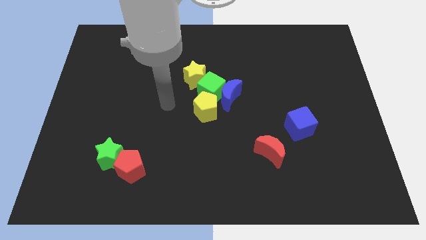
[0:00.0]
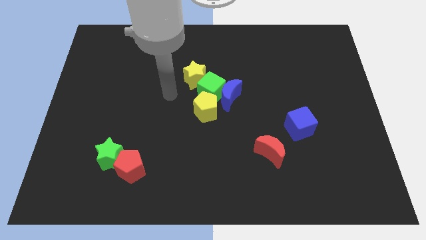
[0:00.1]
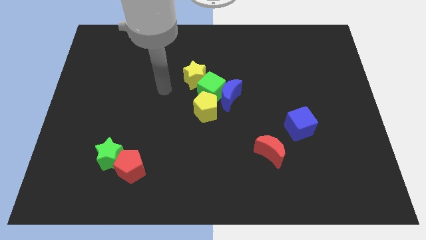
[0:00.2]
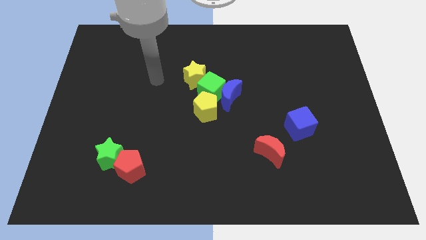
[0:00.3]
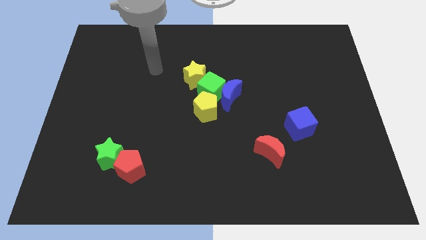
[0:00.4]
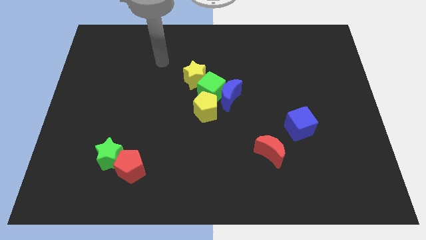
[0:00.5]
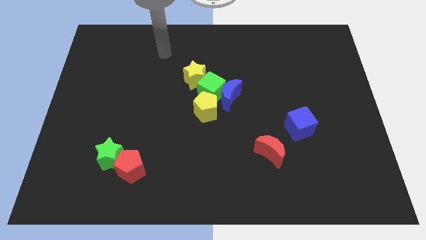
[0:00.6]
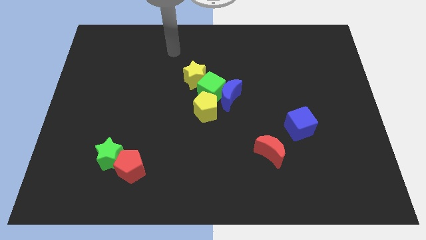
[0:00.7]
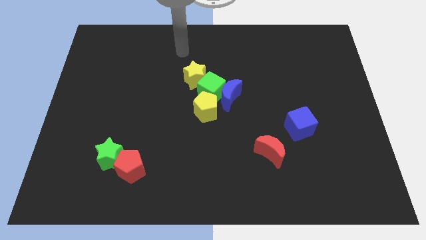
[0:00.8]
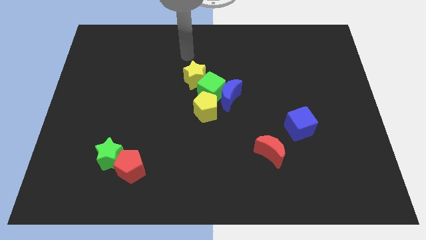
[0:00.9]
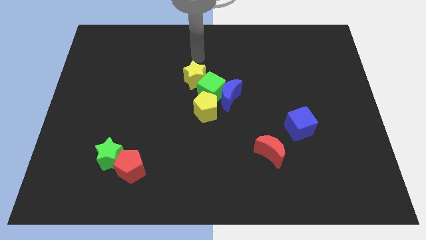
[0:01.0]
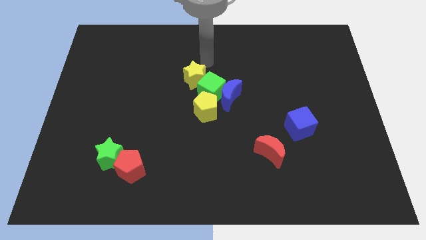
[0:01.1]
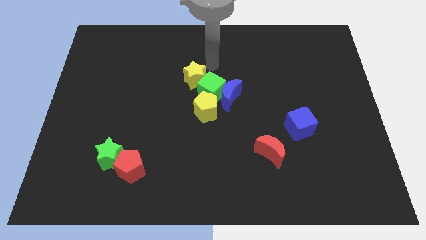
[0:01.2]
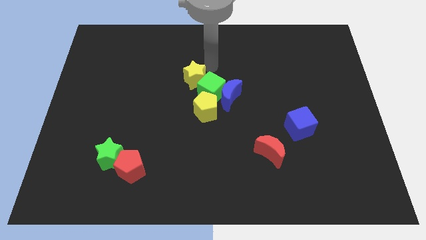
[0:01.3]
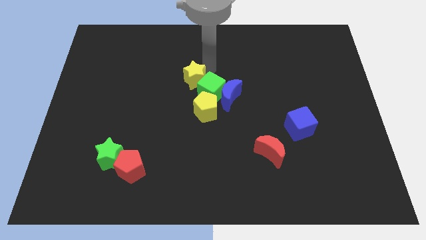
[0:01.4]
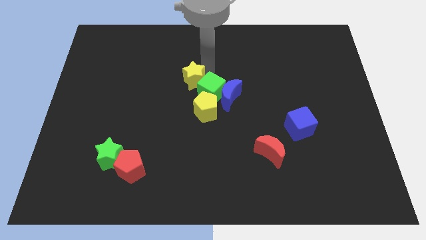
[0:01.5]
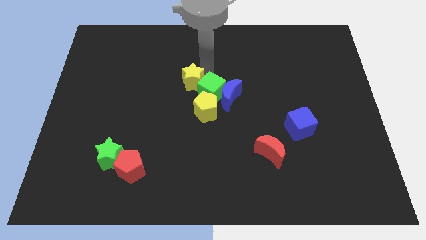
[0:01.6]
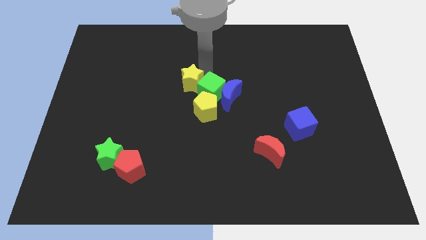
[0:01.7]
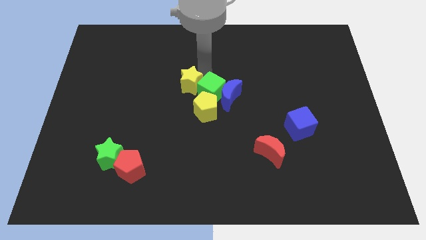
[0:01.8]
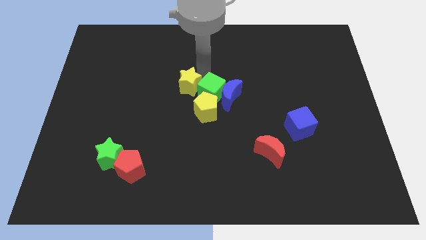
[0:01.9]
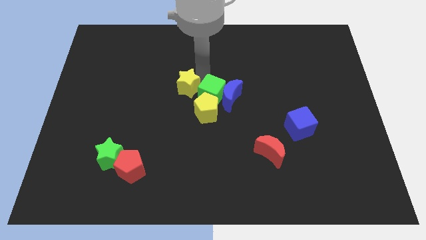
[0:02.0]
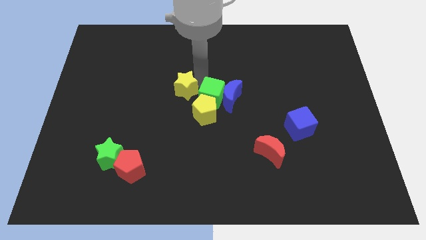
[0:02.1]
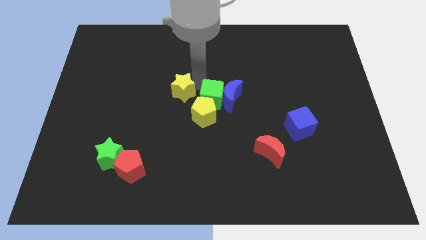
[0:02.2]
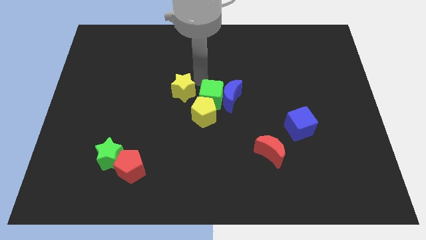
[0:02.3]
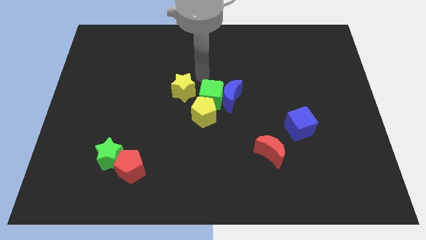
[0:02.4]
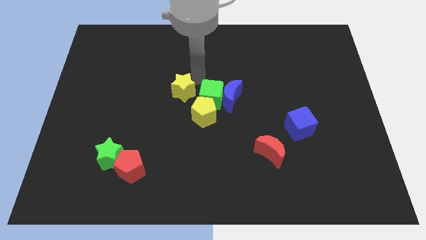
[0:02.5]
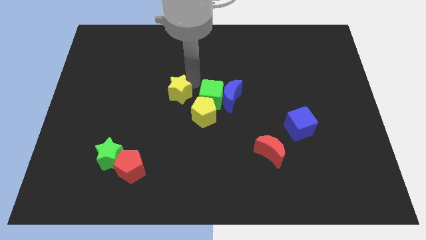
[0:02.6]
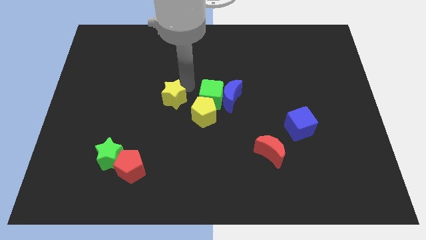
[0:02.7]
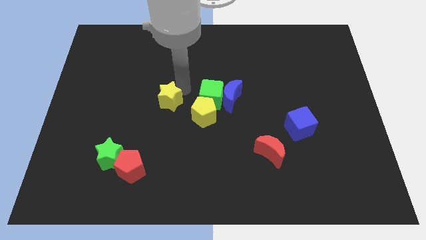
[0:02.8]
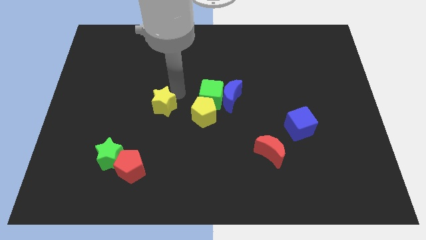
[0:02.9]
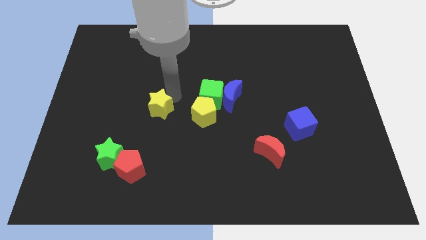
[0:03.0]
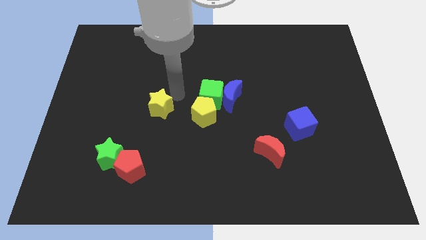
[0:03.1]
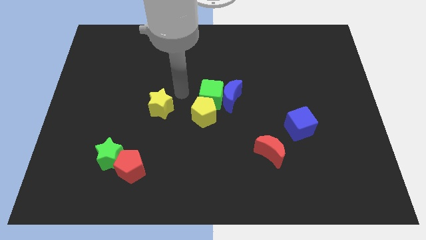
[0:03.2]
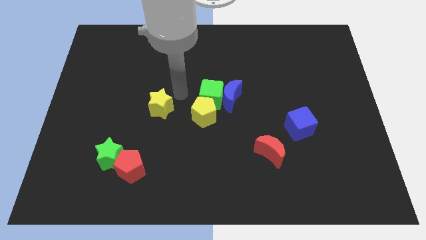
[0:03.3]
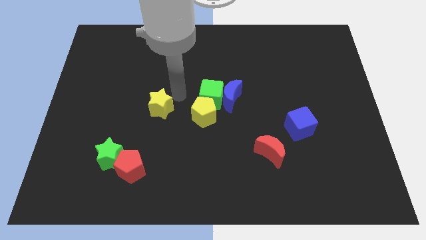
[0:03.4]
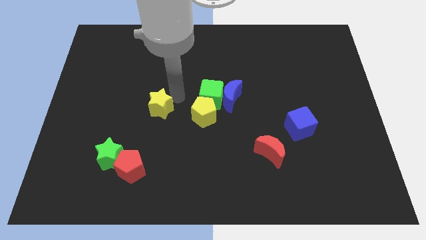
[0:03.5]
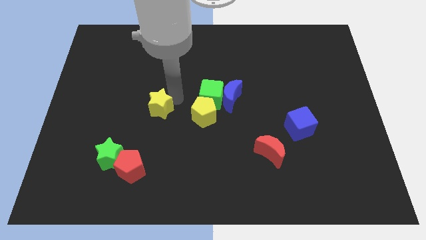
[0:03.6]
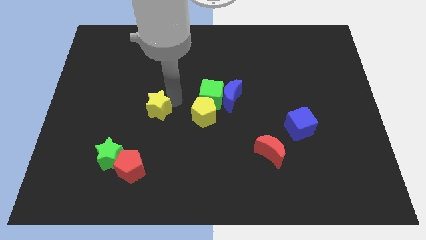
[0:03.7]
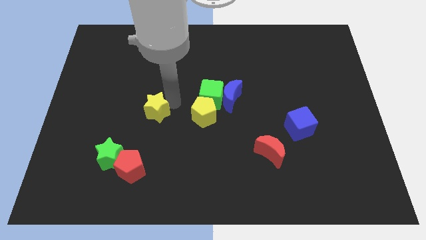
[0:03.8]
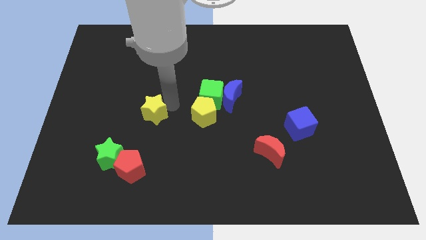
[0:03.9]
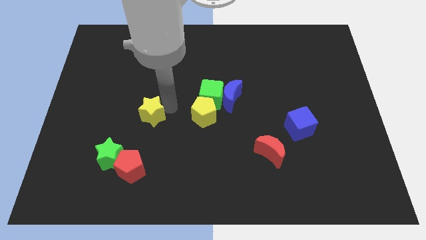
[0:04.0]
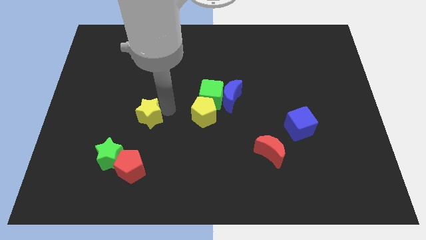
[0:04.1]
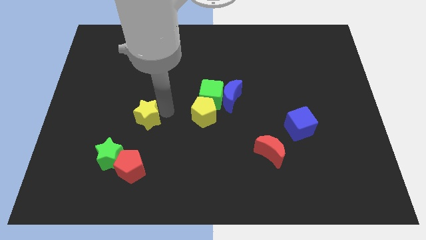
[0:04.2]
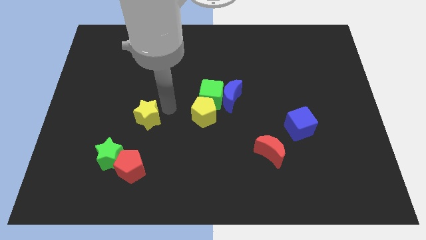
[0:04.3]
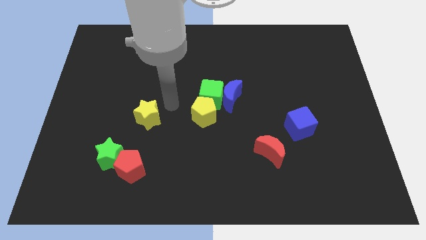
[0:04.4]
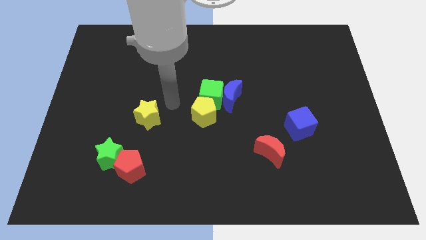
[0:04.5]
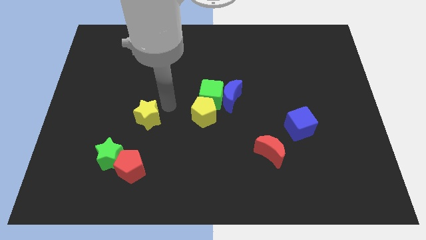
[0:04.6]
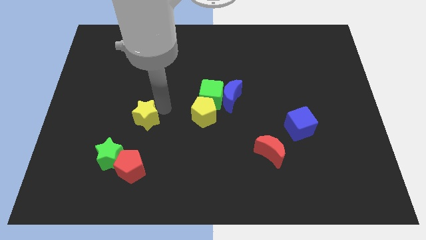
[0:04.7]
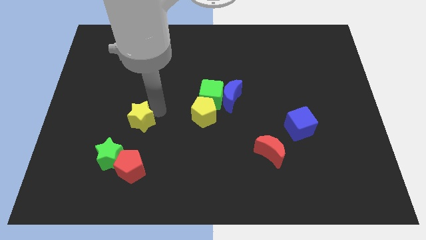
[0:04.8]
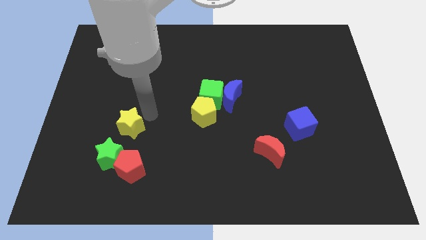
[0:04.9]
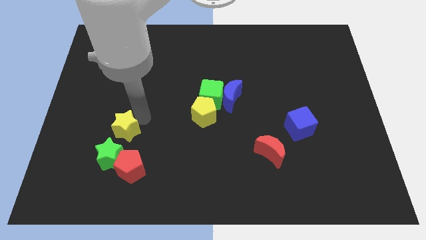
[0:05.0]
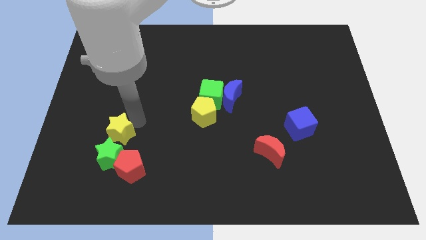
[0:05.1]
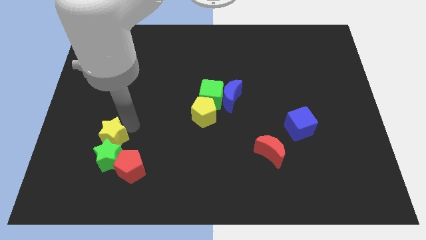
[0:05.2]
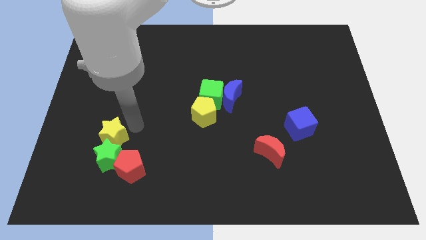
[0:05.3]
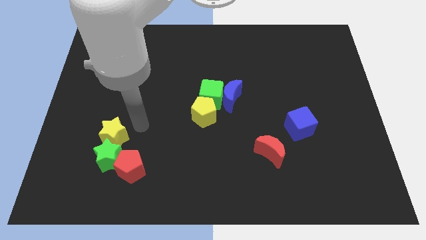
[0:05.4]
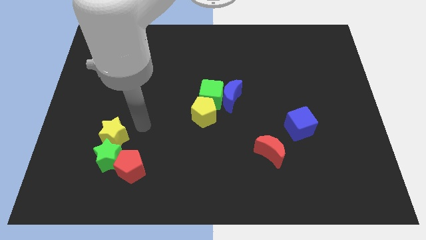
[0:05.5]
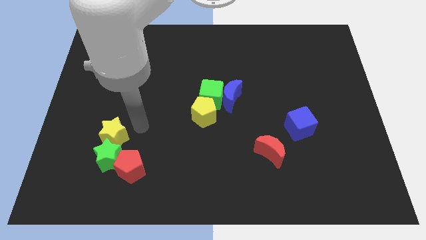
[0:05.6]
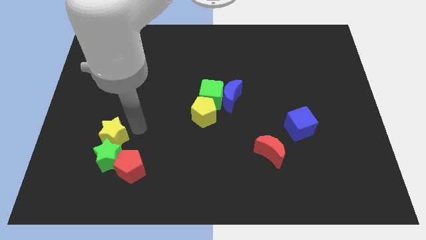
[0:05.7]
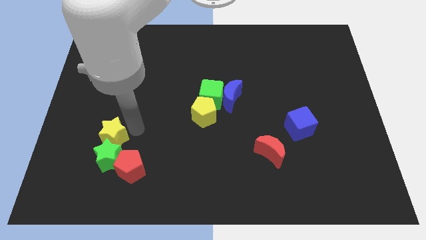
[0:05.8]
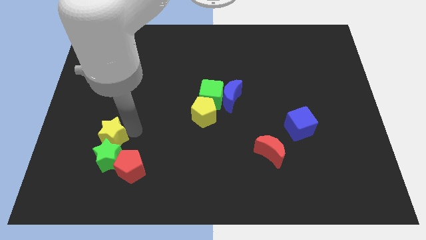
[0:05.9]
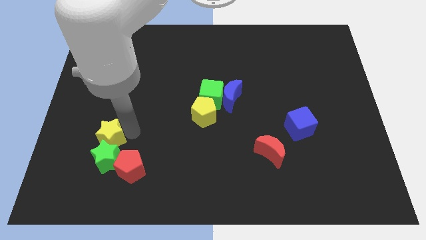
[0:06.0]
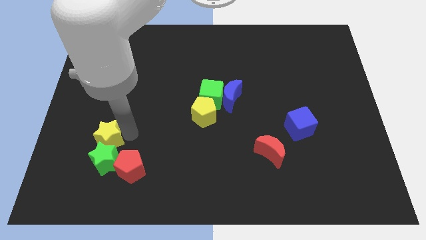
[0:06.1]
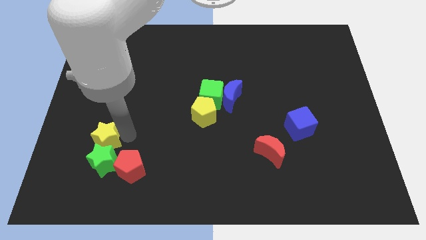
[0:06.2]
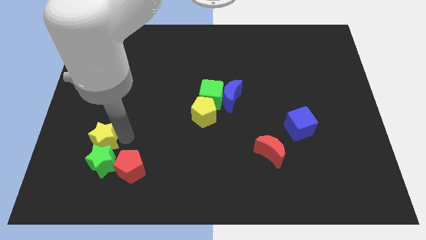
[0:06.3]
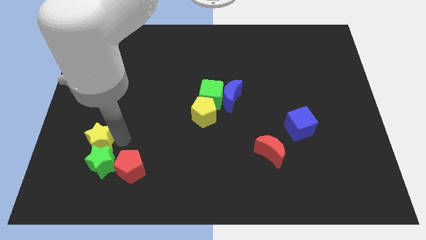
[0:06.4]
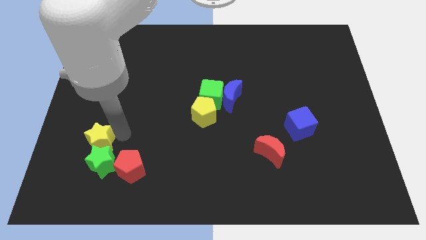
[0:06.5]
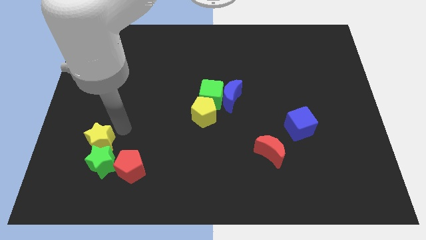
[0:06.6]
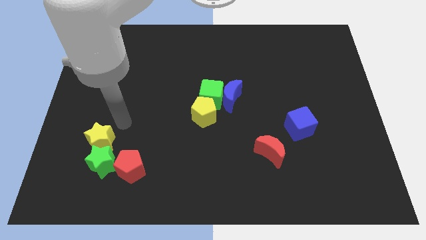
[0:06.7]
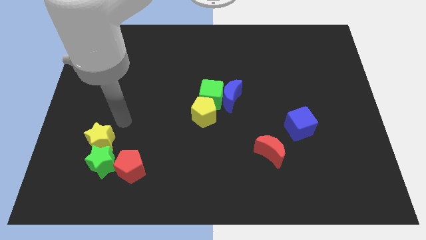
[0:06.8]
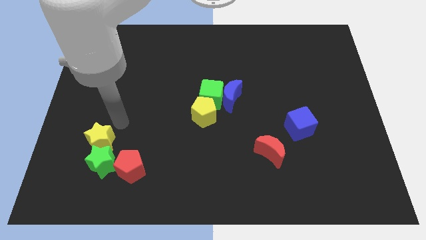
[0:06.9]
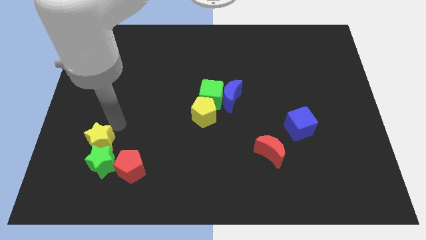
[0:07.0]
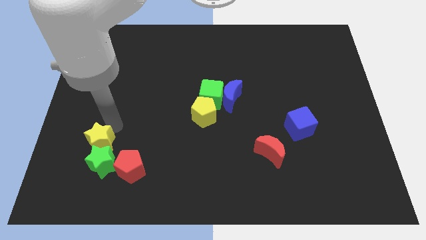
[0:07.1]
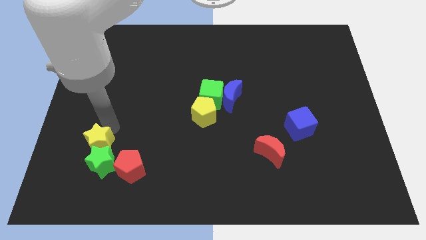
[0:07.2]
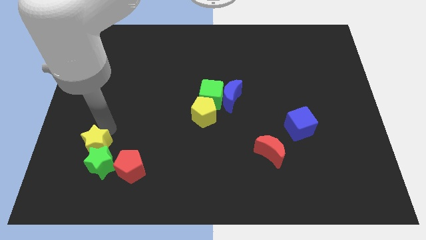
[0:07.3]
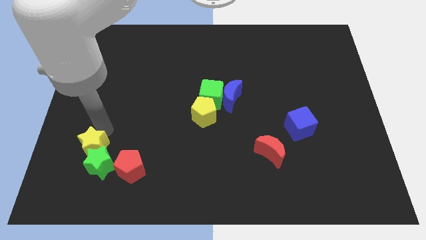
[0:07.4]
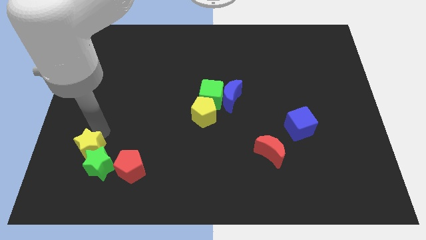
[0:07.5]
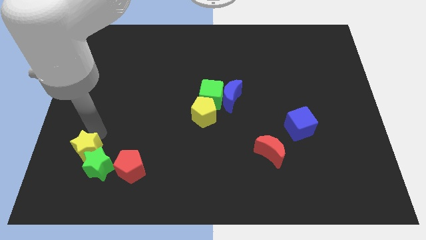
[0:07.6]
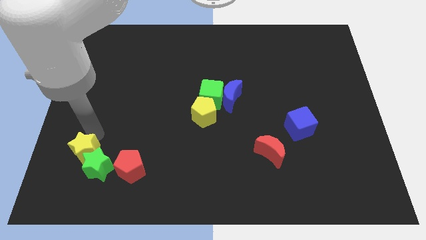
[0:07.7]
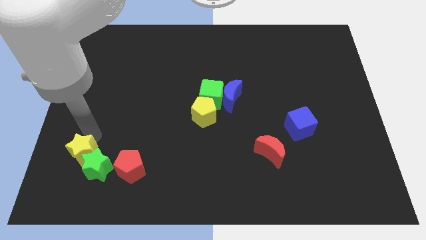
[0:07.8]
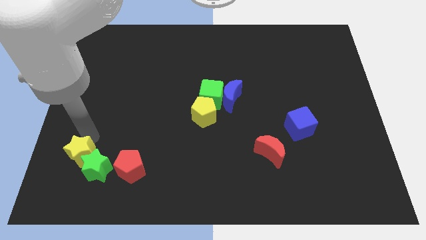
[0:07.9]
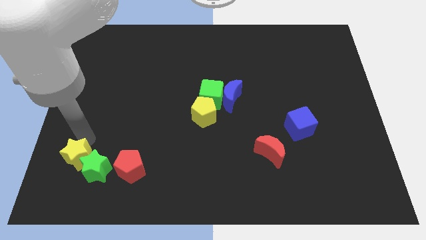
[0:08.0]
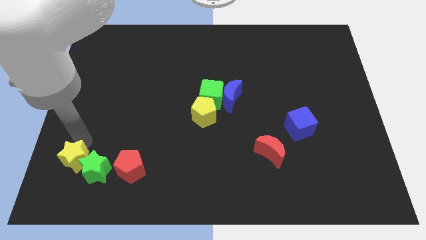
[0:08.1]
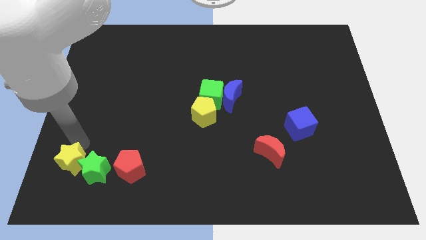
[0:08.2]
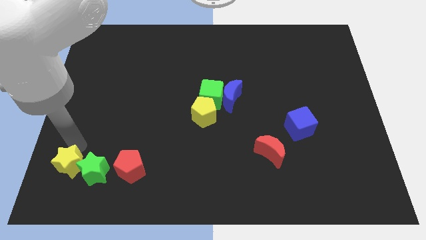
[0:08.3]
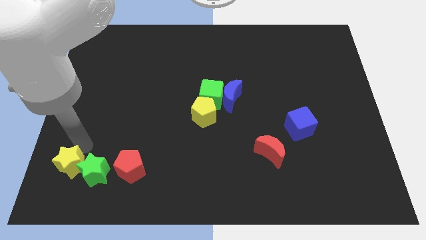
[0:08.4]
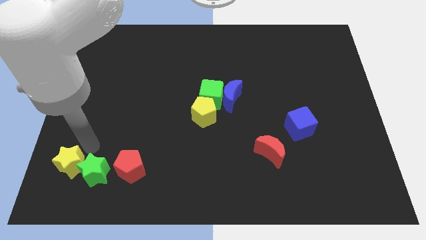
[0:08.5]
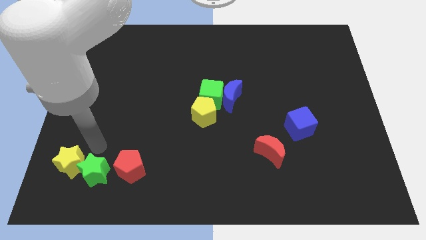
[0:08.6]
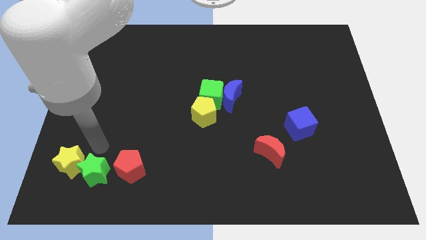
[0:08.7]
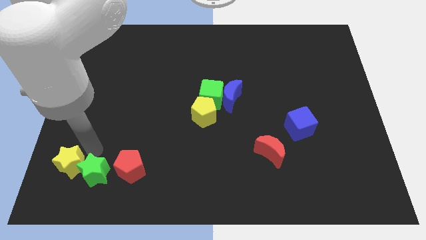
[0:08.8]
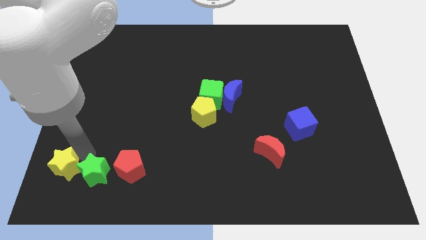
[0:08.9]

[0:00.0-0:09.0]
slide the yellow star to the bottom left
